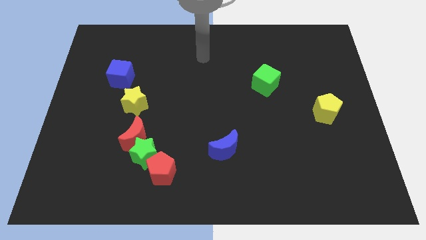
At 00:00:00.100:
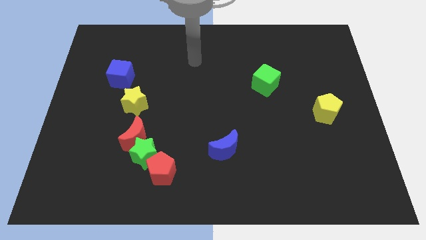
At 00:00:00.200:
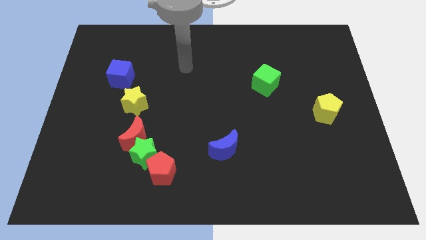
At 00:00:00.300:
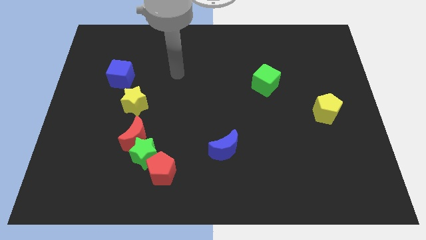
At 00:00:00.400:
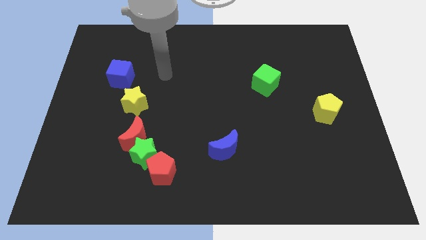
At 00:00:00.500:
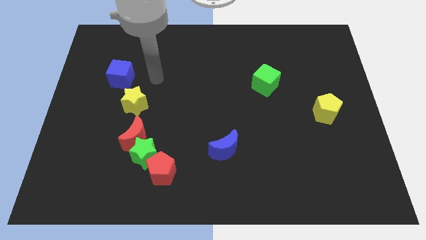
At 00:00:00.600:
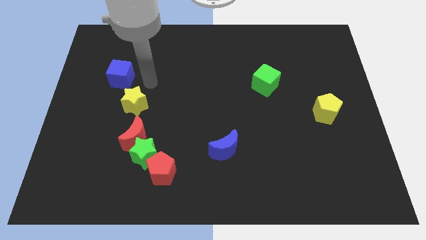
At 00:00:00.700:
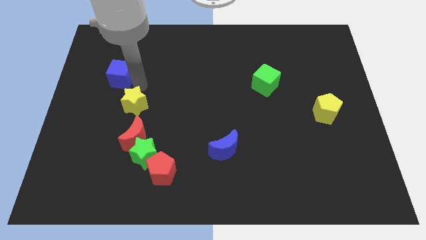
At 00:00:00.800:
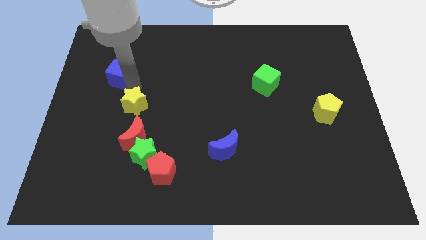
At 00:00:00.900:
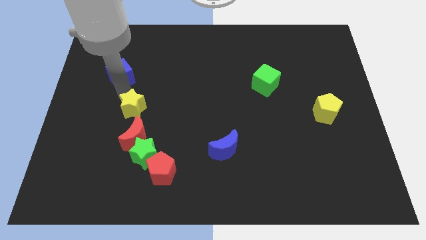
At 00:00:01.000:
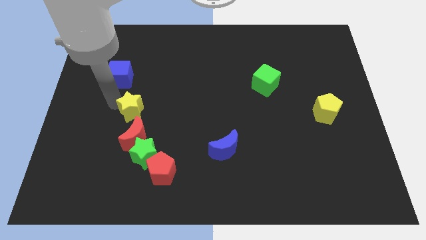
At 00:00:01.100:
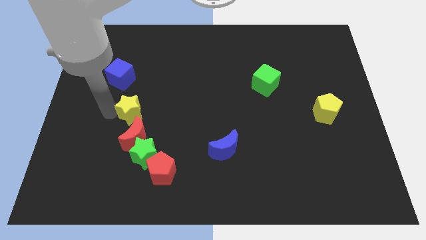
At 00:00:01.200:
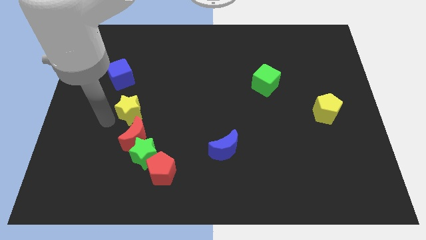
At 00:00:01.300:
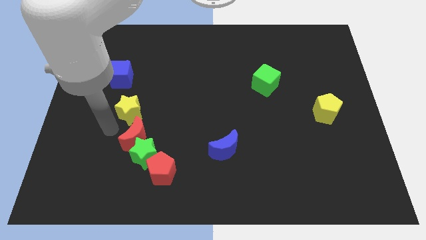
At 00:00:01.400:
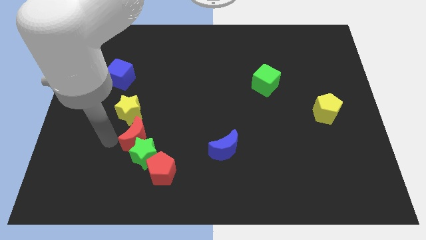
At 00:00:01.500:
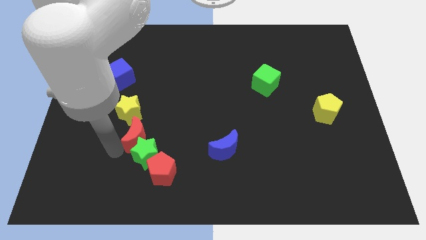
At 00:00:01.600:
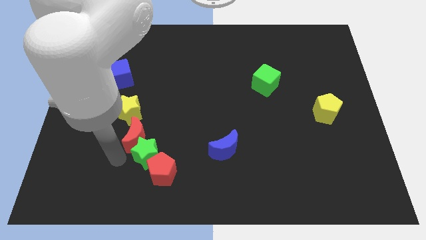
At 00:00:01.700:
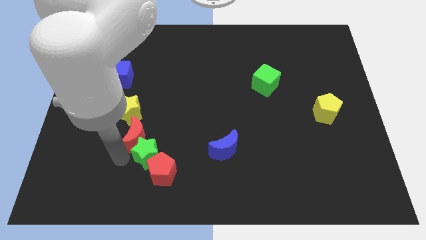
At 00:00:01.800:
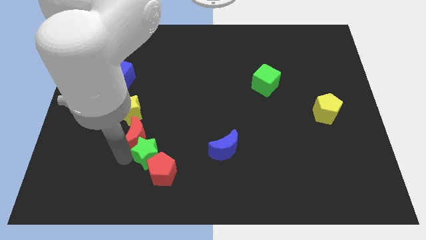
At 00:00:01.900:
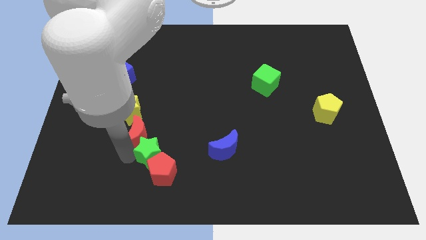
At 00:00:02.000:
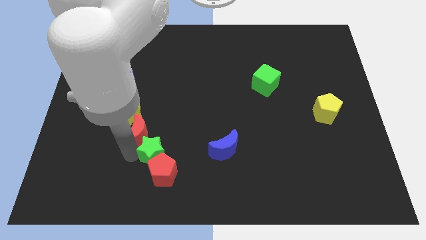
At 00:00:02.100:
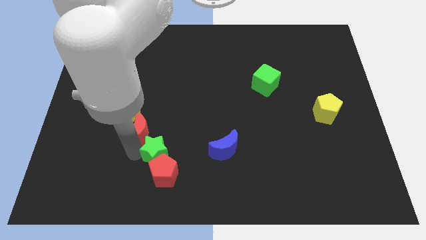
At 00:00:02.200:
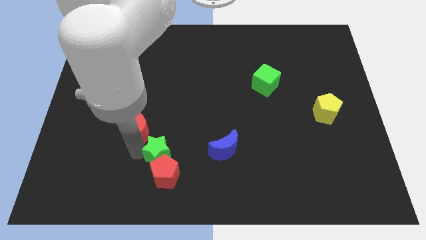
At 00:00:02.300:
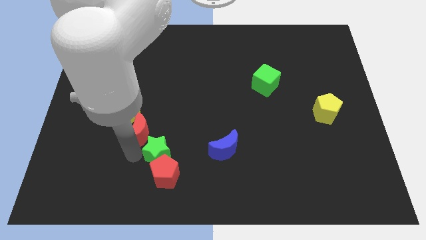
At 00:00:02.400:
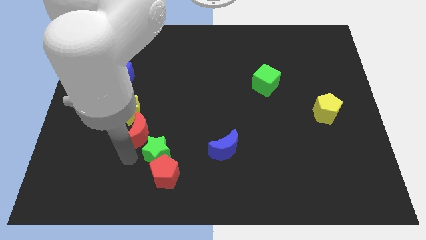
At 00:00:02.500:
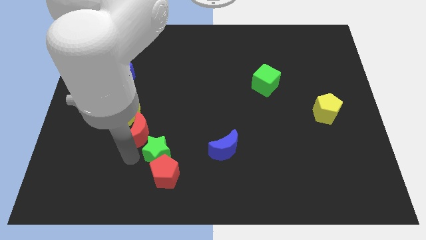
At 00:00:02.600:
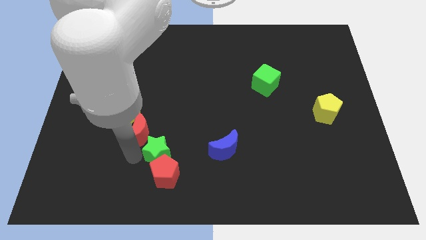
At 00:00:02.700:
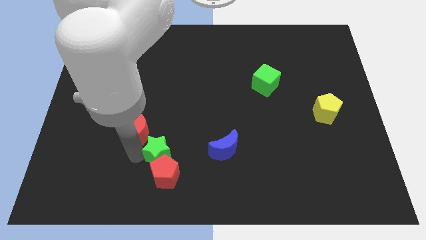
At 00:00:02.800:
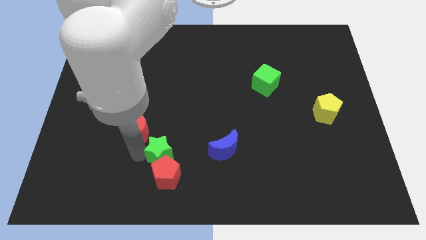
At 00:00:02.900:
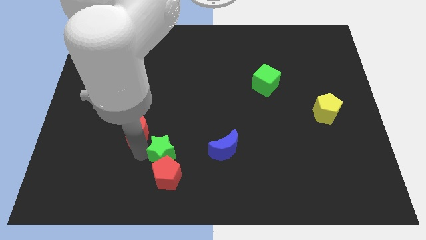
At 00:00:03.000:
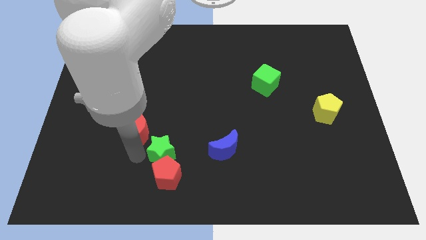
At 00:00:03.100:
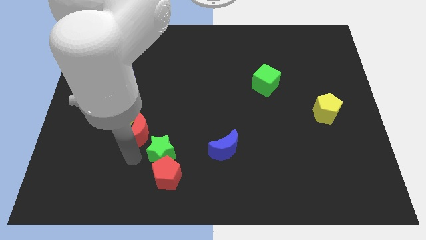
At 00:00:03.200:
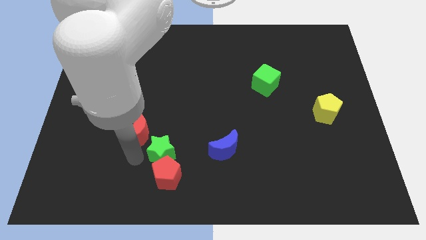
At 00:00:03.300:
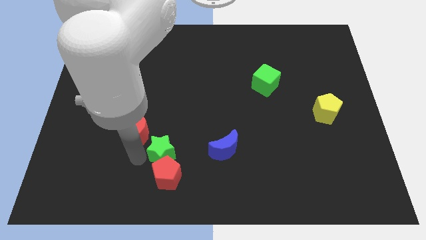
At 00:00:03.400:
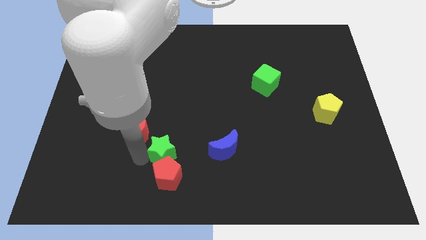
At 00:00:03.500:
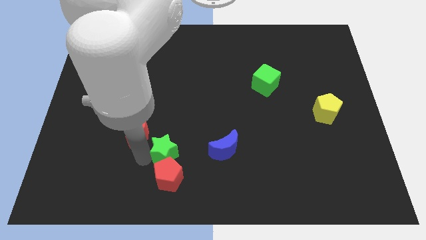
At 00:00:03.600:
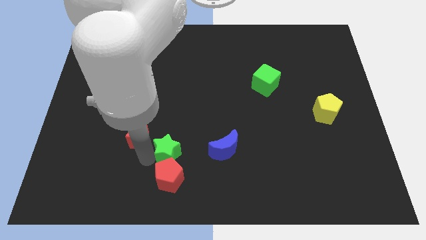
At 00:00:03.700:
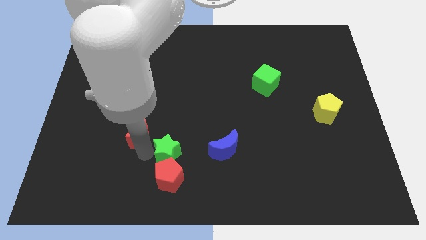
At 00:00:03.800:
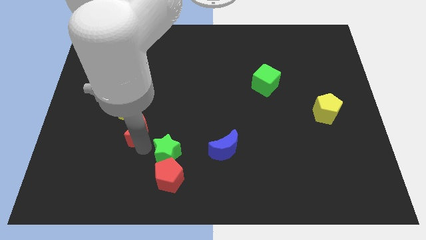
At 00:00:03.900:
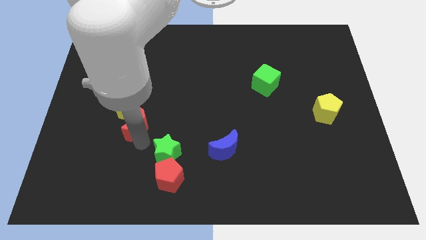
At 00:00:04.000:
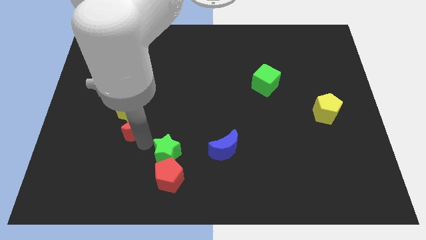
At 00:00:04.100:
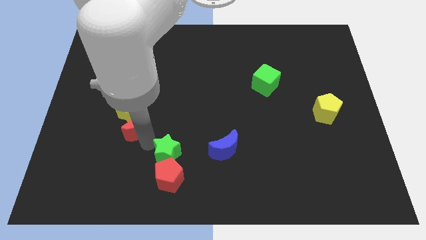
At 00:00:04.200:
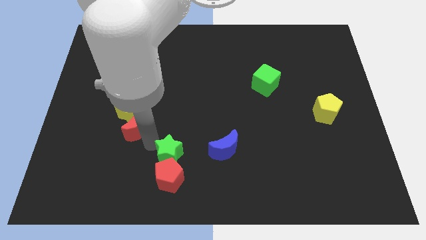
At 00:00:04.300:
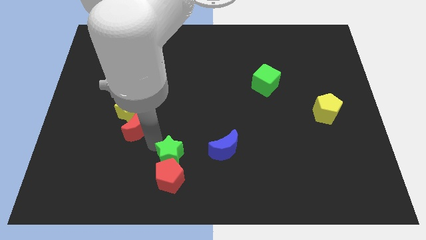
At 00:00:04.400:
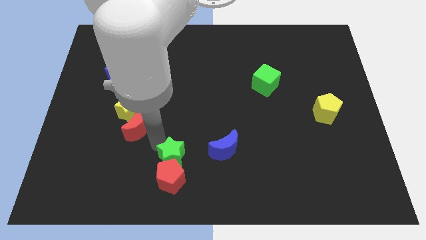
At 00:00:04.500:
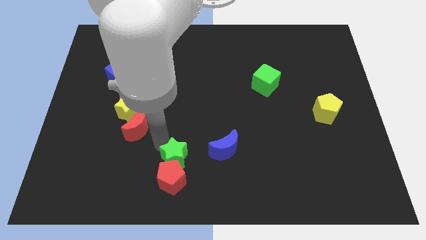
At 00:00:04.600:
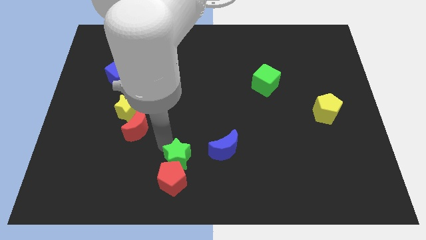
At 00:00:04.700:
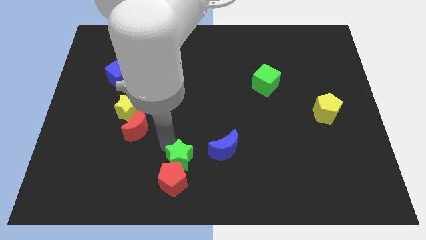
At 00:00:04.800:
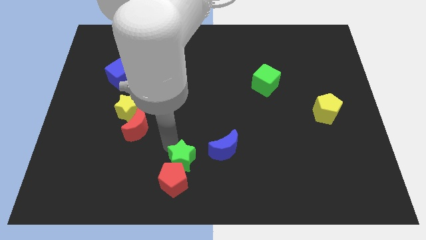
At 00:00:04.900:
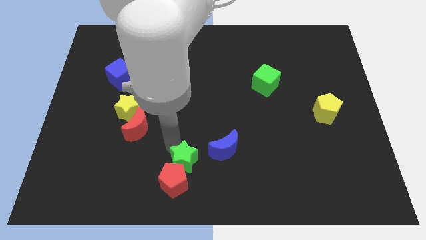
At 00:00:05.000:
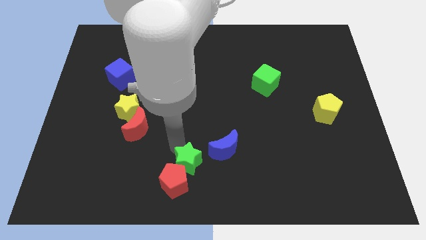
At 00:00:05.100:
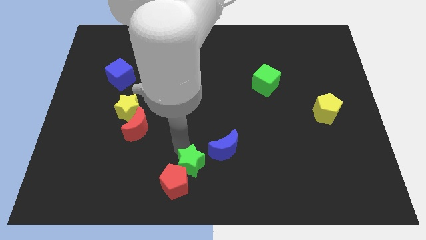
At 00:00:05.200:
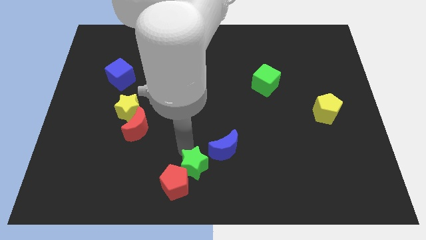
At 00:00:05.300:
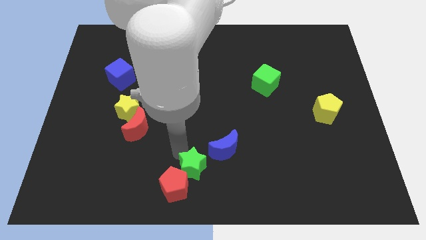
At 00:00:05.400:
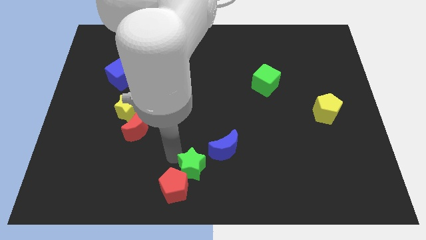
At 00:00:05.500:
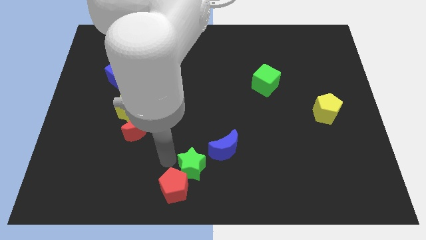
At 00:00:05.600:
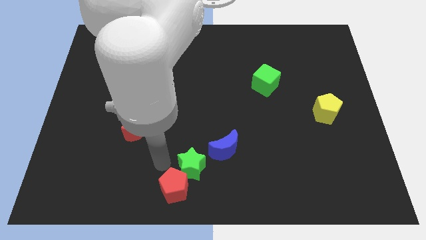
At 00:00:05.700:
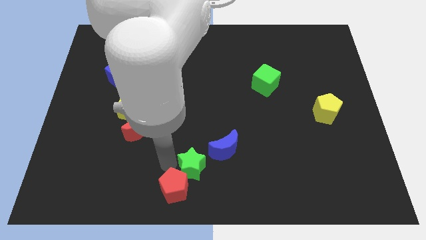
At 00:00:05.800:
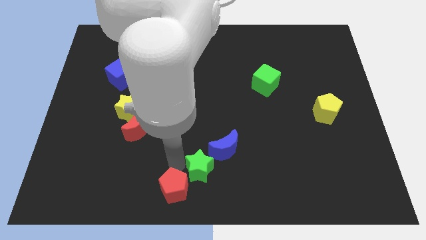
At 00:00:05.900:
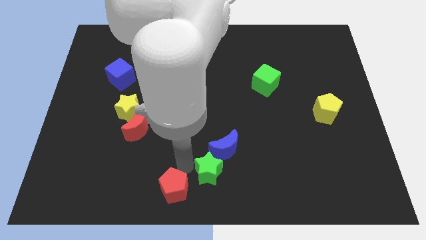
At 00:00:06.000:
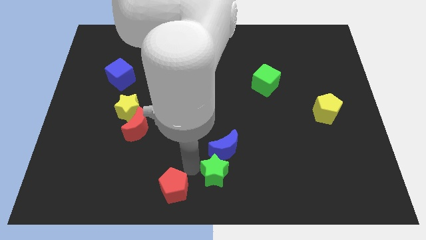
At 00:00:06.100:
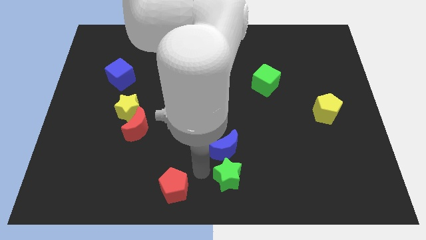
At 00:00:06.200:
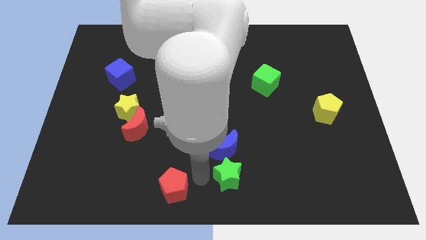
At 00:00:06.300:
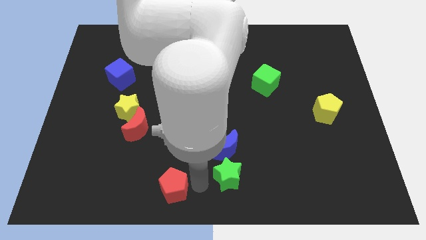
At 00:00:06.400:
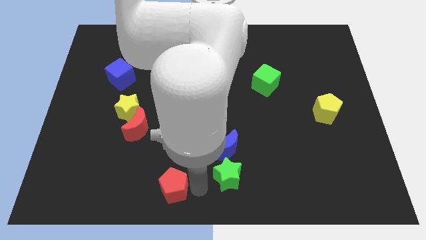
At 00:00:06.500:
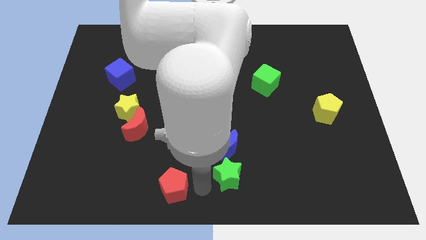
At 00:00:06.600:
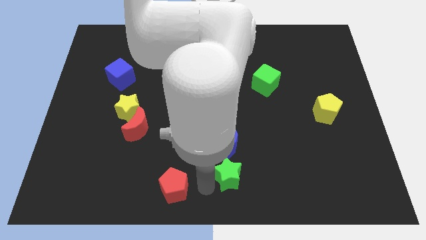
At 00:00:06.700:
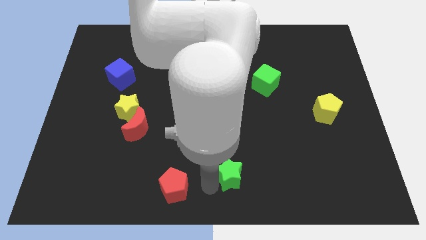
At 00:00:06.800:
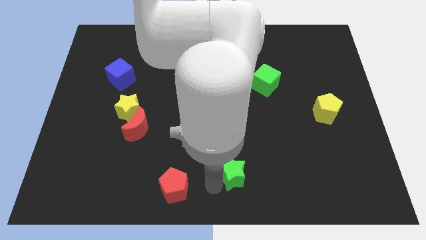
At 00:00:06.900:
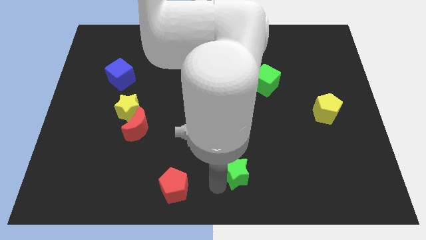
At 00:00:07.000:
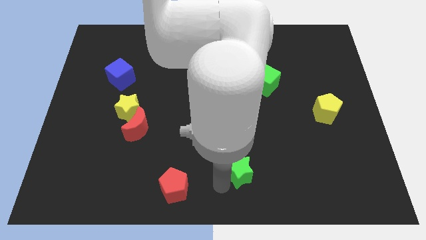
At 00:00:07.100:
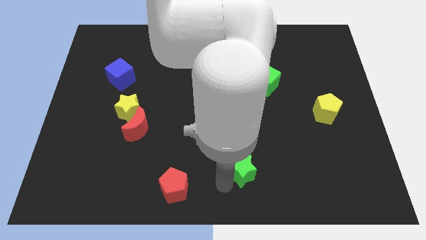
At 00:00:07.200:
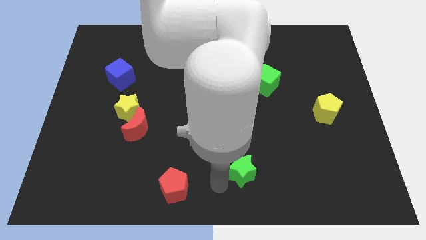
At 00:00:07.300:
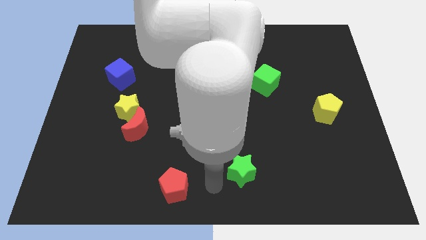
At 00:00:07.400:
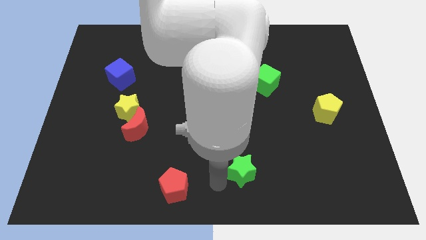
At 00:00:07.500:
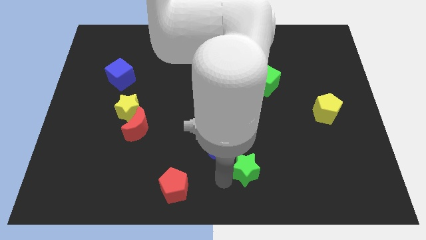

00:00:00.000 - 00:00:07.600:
move the green star right
